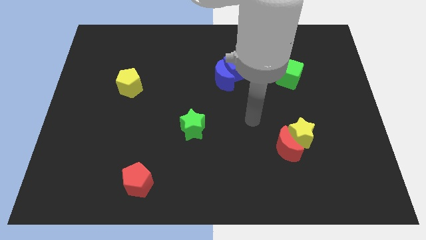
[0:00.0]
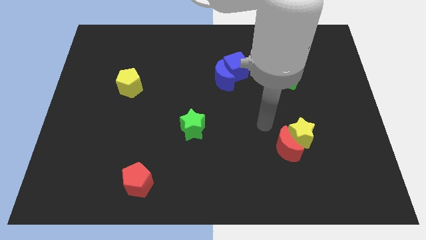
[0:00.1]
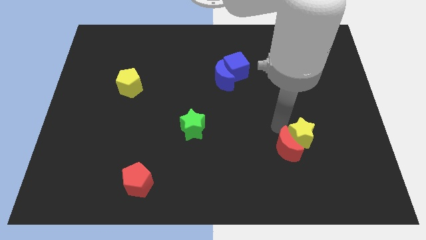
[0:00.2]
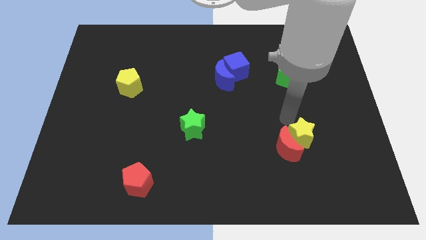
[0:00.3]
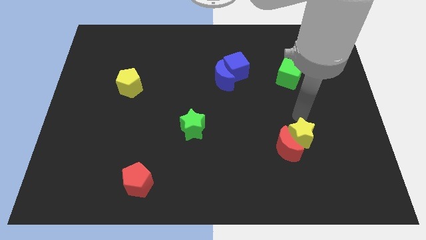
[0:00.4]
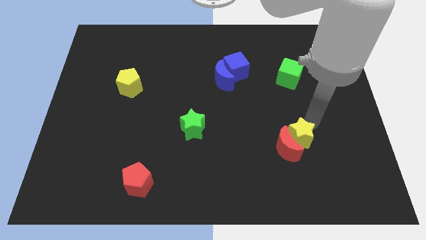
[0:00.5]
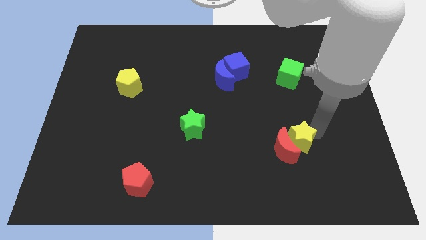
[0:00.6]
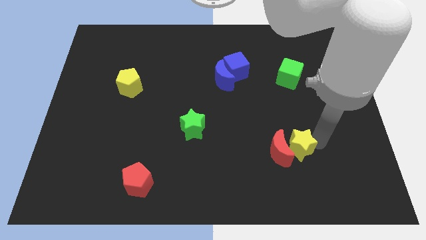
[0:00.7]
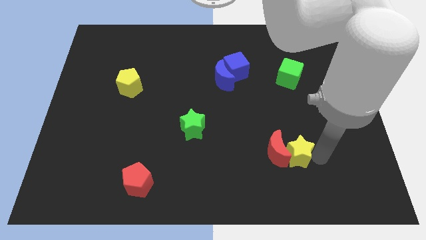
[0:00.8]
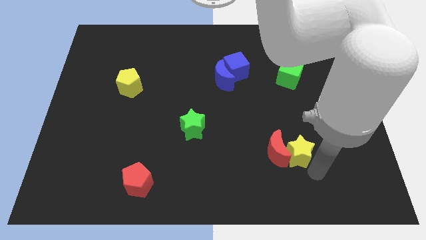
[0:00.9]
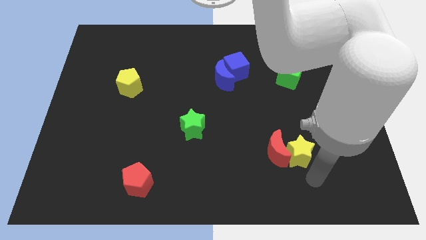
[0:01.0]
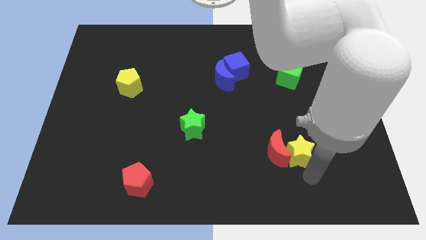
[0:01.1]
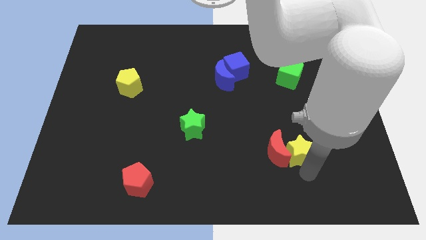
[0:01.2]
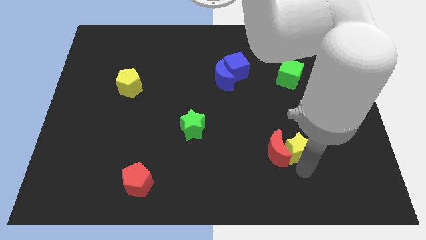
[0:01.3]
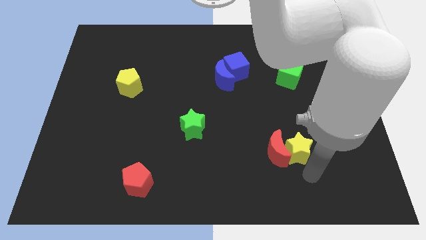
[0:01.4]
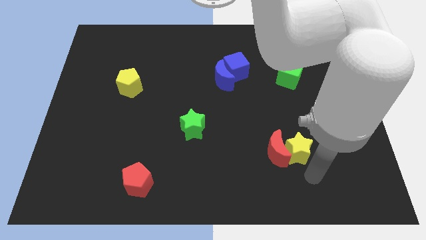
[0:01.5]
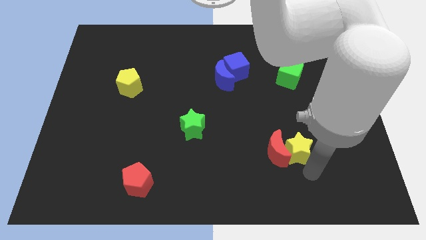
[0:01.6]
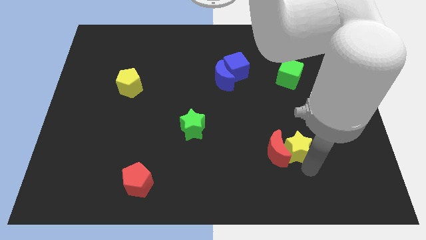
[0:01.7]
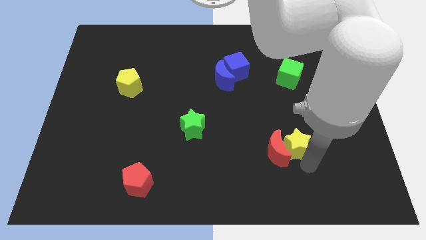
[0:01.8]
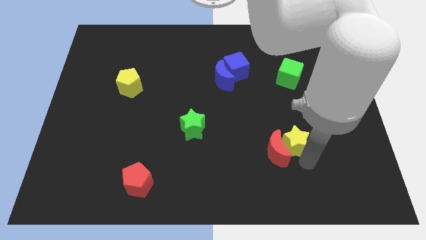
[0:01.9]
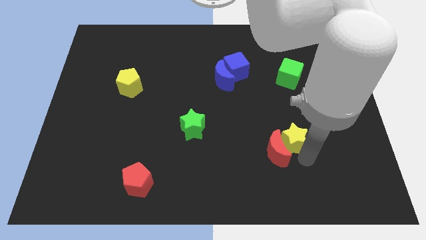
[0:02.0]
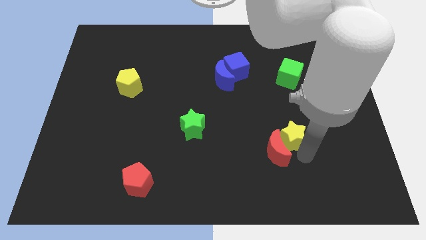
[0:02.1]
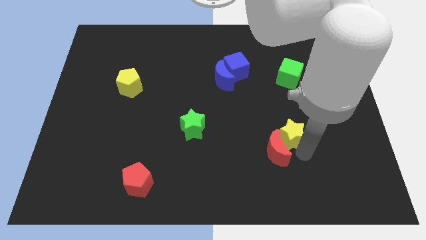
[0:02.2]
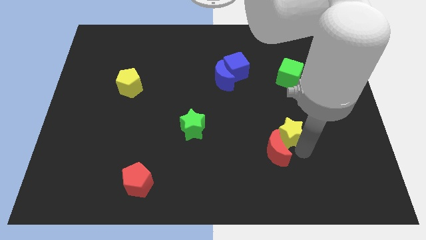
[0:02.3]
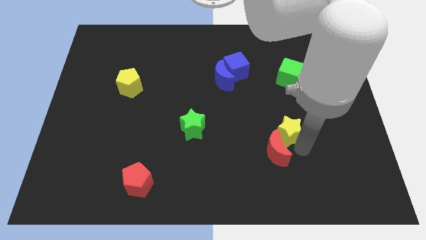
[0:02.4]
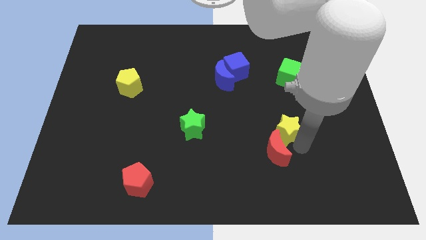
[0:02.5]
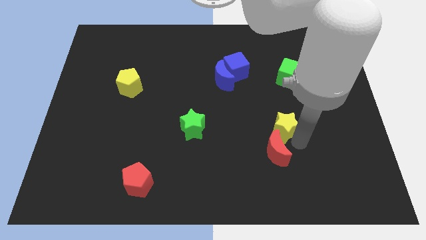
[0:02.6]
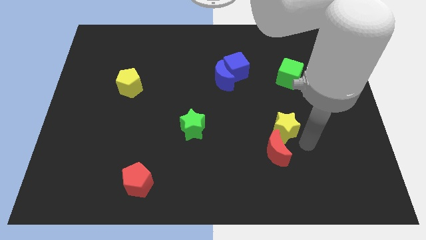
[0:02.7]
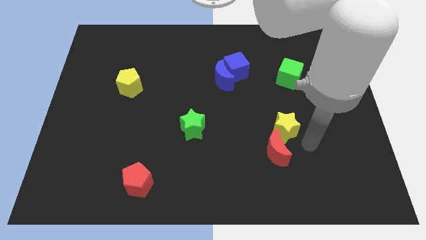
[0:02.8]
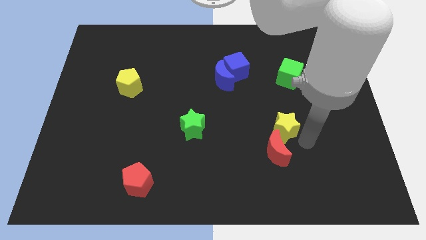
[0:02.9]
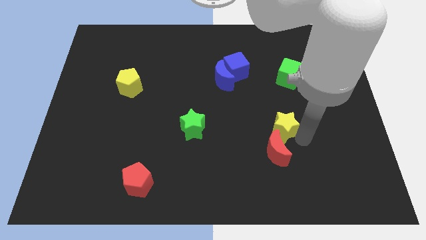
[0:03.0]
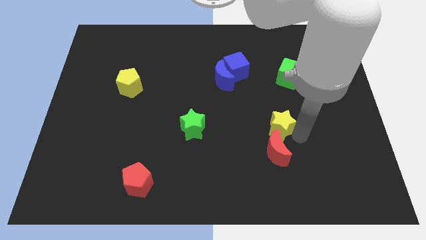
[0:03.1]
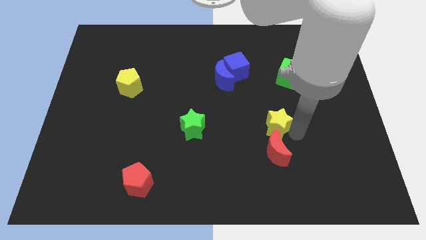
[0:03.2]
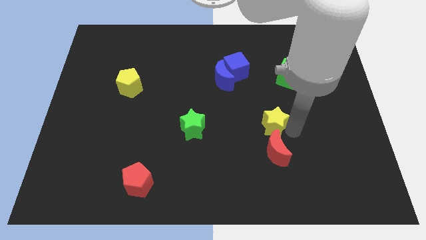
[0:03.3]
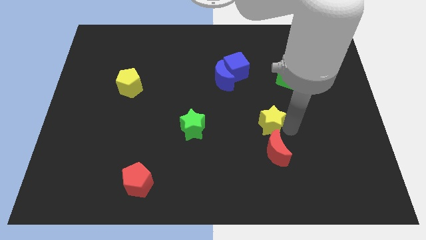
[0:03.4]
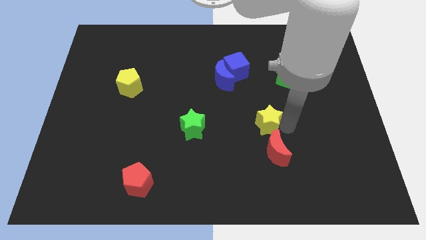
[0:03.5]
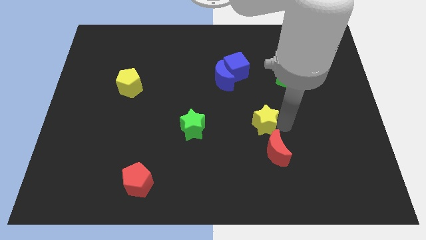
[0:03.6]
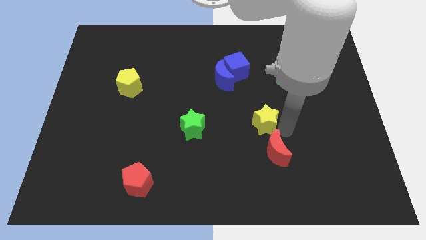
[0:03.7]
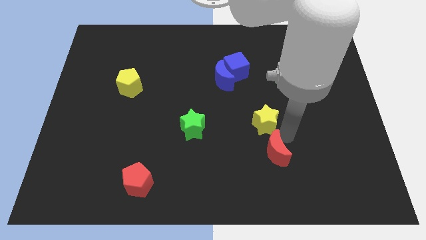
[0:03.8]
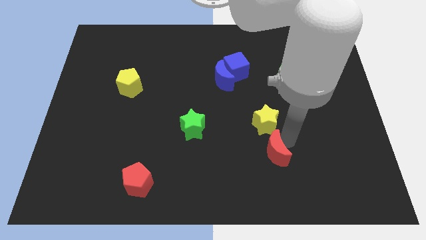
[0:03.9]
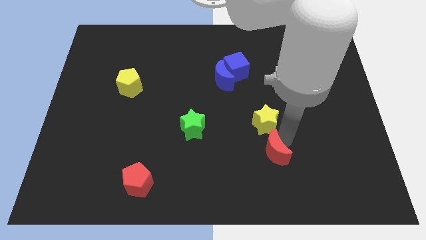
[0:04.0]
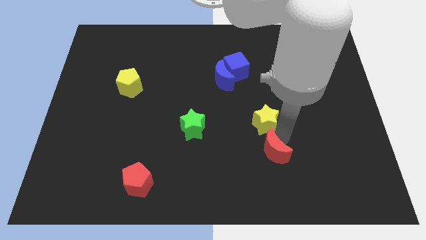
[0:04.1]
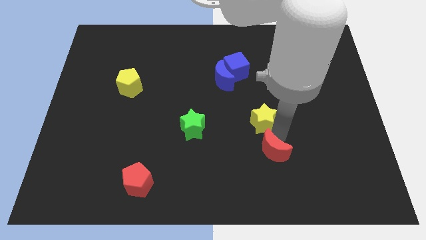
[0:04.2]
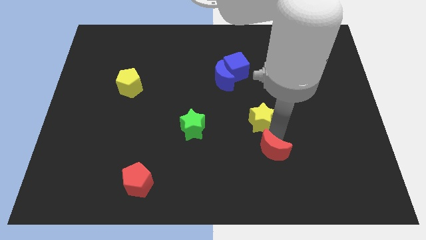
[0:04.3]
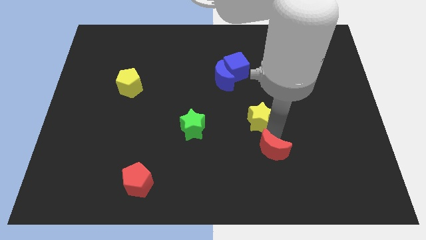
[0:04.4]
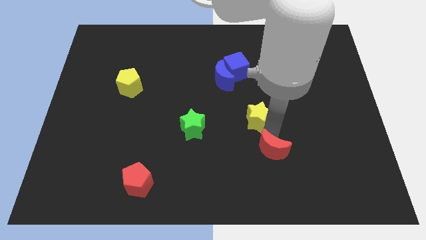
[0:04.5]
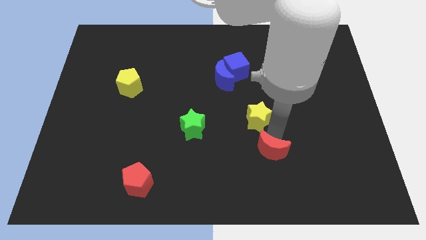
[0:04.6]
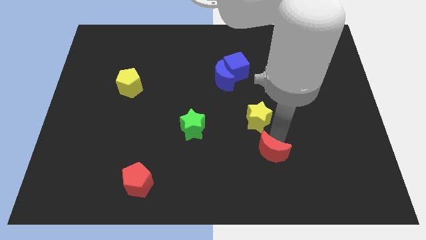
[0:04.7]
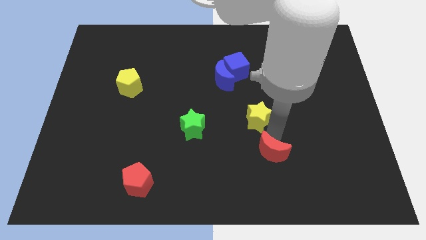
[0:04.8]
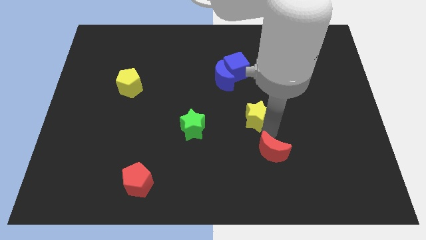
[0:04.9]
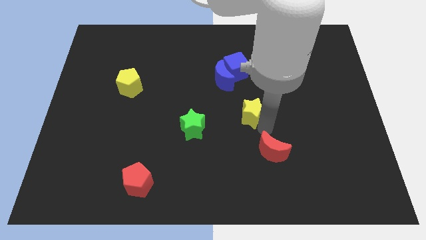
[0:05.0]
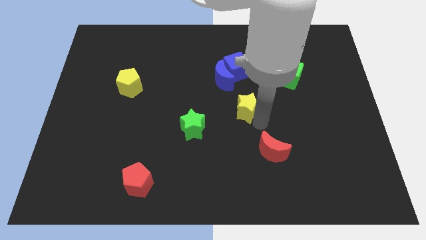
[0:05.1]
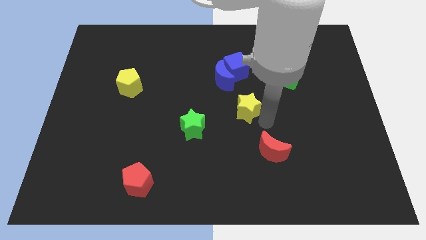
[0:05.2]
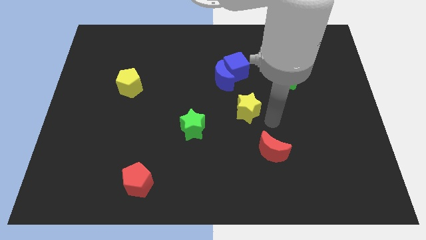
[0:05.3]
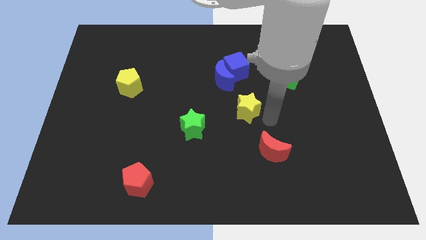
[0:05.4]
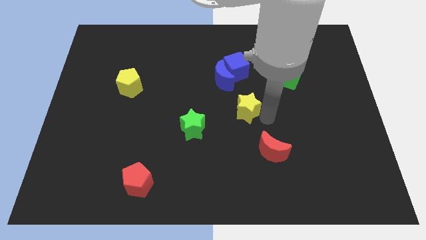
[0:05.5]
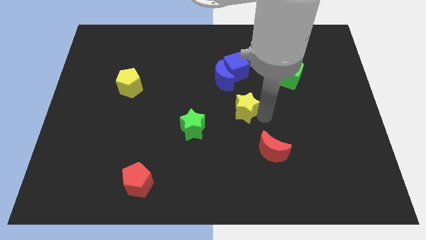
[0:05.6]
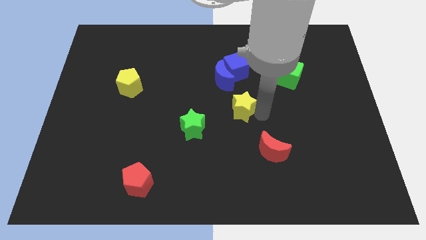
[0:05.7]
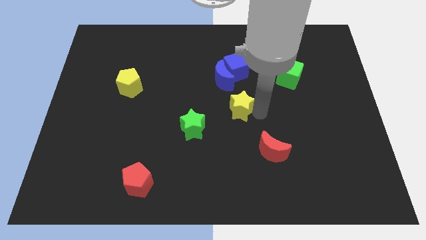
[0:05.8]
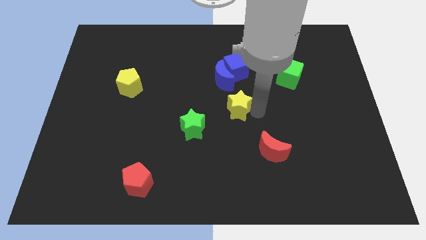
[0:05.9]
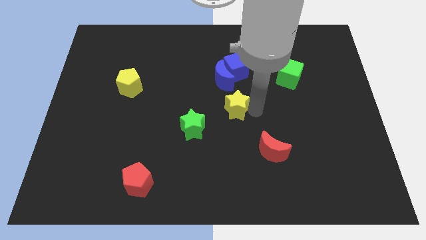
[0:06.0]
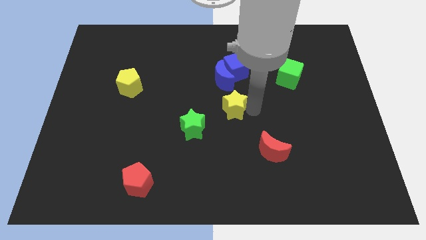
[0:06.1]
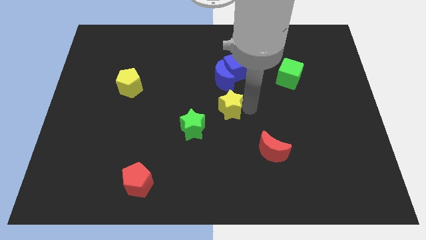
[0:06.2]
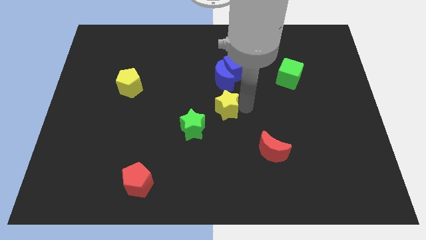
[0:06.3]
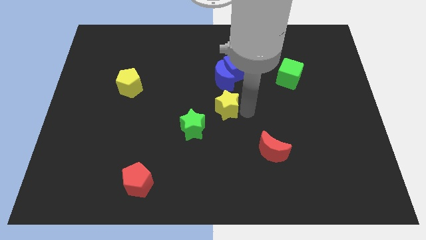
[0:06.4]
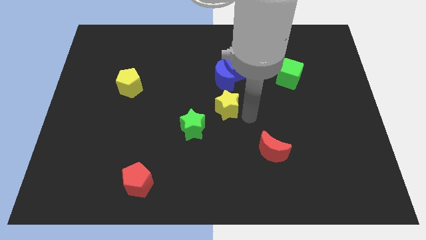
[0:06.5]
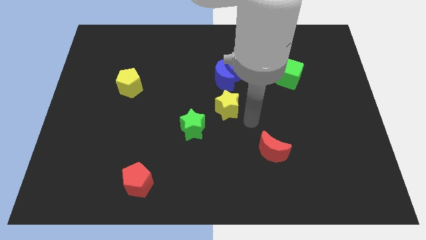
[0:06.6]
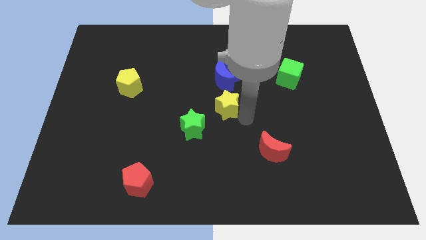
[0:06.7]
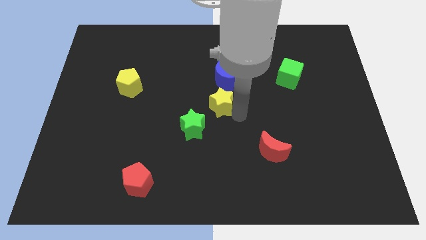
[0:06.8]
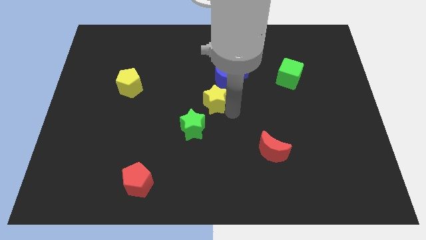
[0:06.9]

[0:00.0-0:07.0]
put the yellow star diagonally down and to the left of the blue moon

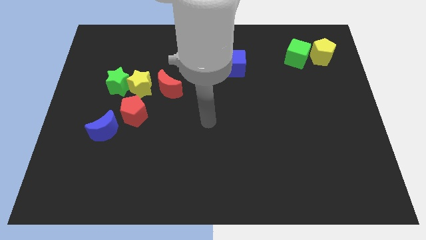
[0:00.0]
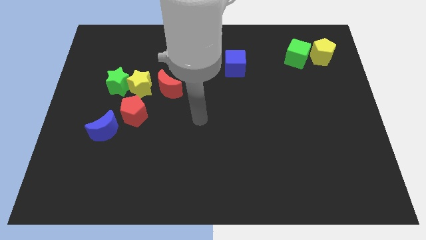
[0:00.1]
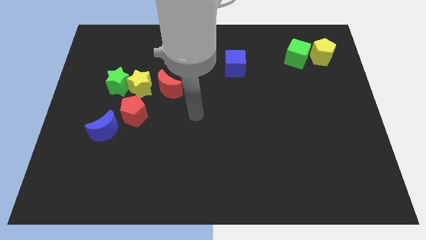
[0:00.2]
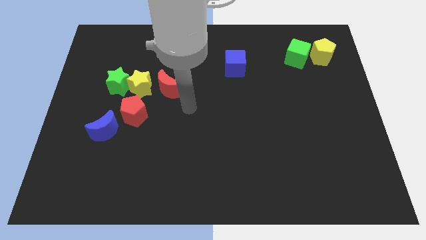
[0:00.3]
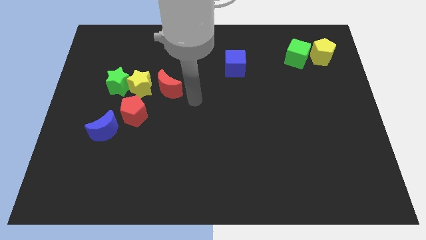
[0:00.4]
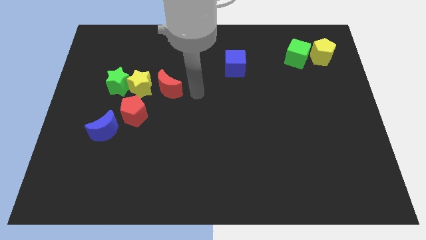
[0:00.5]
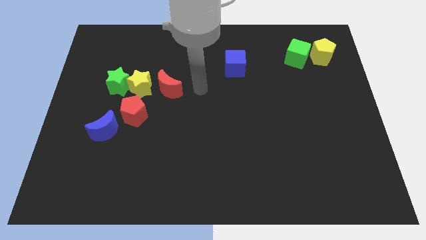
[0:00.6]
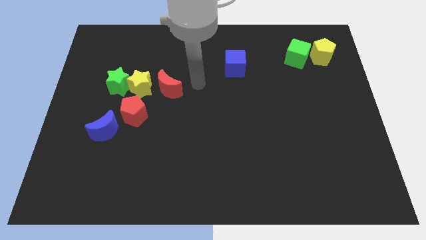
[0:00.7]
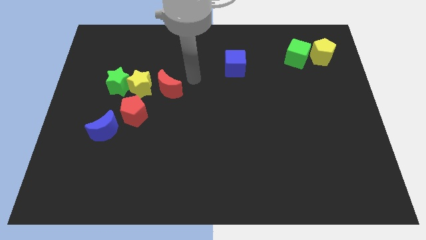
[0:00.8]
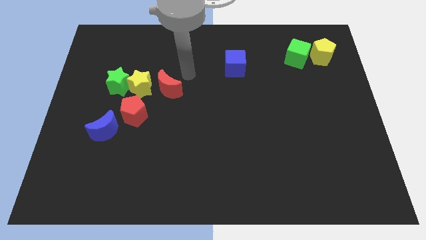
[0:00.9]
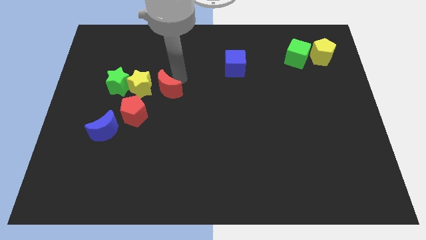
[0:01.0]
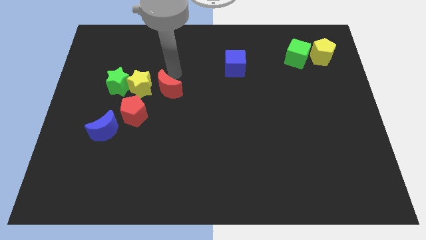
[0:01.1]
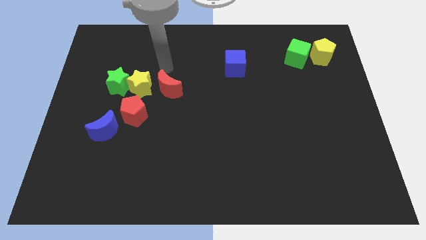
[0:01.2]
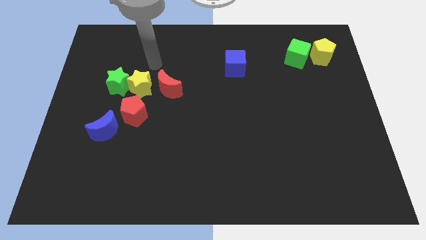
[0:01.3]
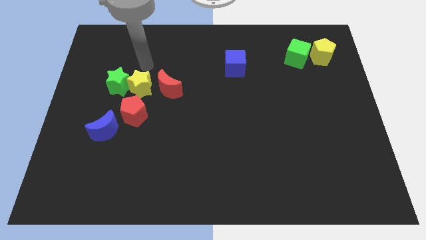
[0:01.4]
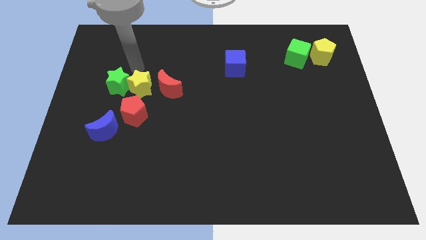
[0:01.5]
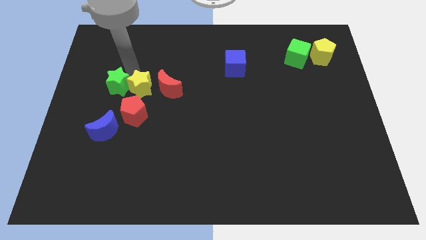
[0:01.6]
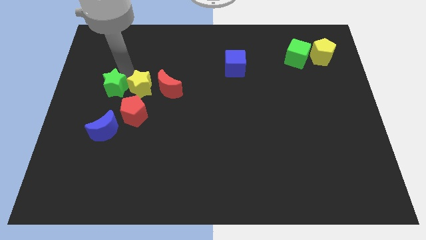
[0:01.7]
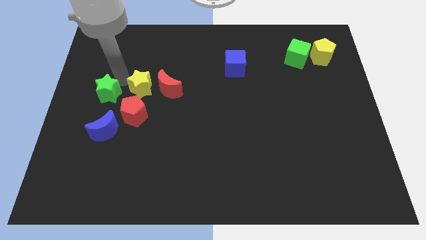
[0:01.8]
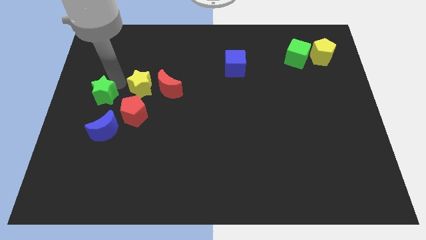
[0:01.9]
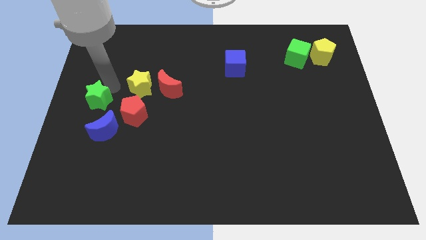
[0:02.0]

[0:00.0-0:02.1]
slide the green star left of the red pentagon
